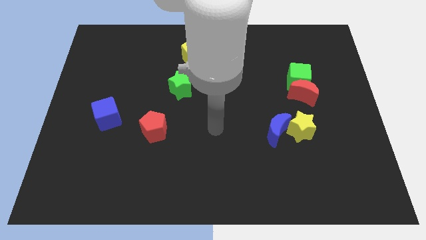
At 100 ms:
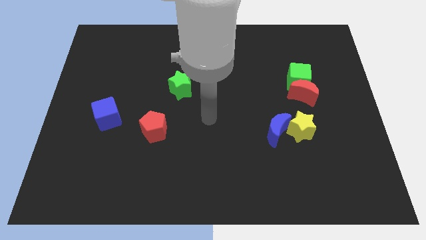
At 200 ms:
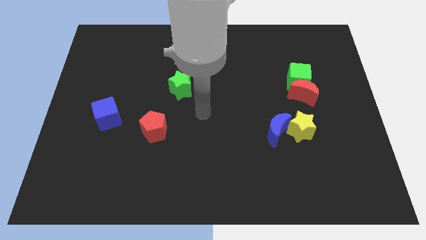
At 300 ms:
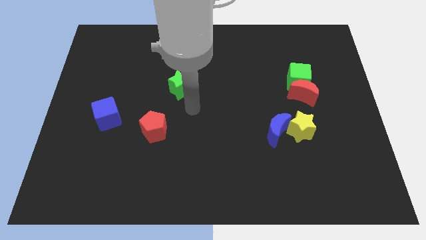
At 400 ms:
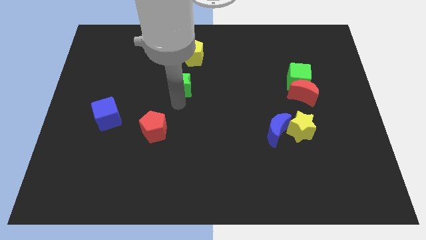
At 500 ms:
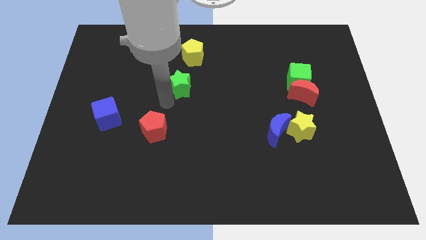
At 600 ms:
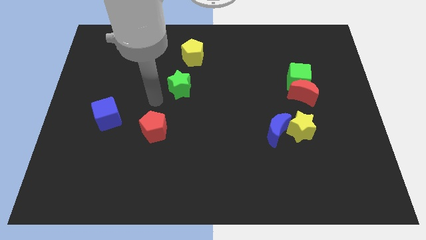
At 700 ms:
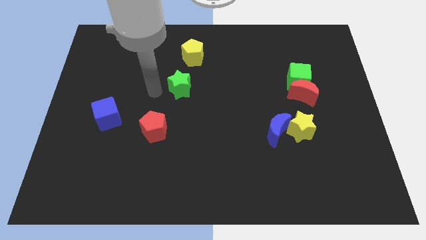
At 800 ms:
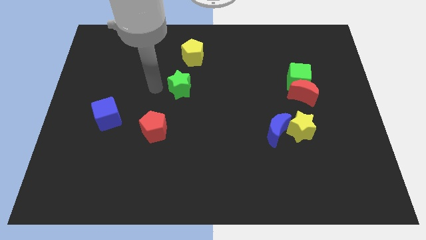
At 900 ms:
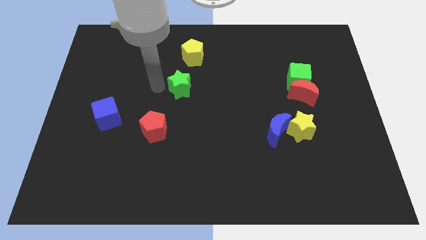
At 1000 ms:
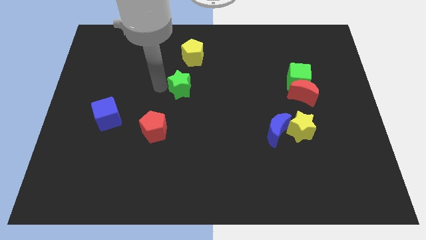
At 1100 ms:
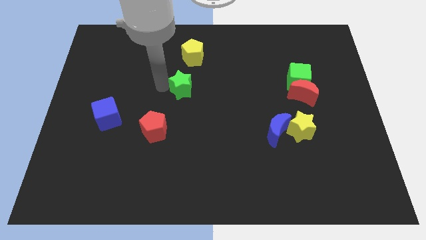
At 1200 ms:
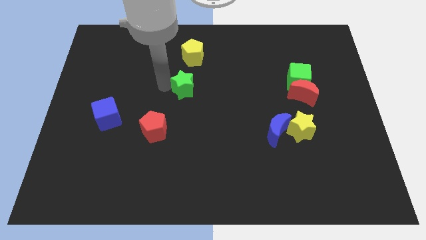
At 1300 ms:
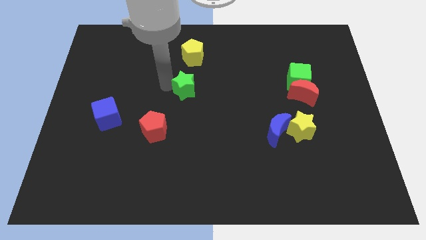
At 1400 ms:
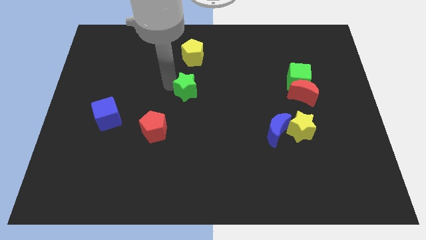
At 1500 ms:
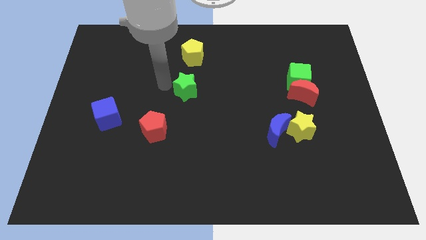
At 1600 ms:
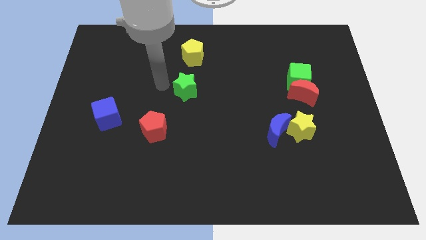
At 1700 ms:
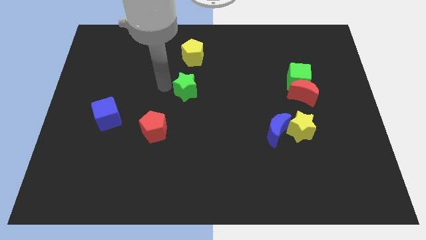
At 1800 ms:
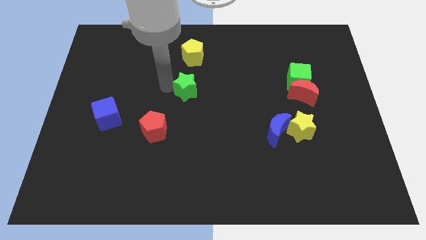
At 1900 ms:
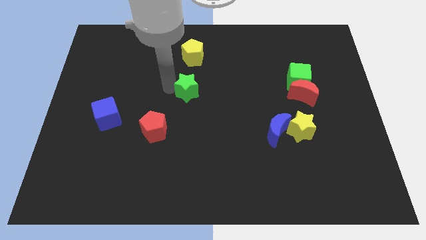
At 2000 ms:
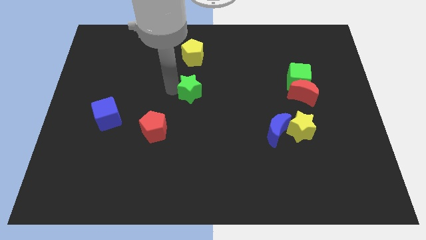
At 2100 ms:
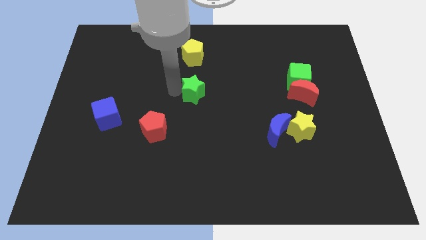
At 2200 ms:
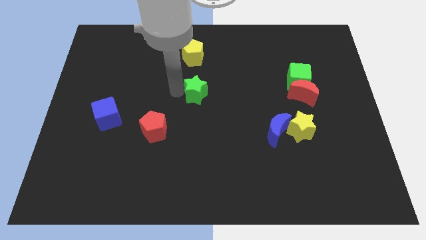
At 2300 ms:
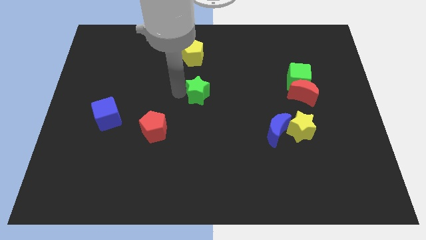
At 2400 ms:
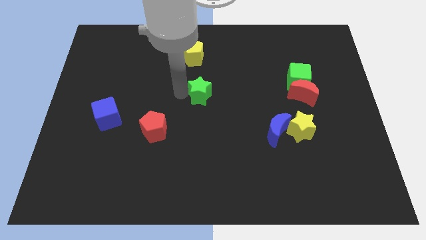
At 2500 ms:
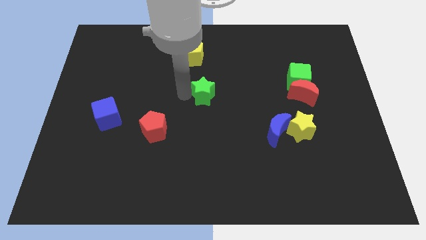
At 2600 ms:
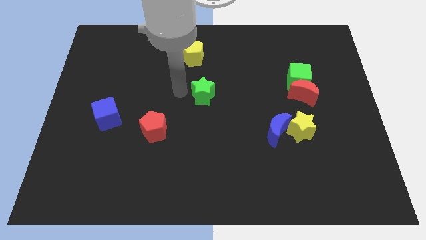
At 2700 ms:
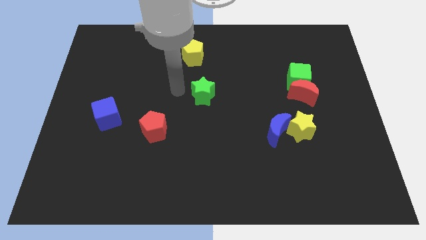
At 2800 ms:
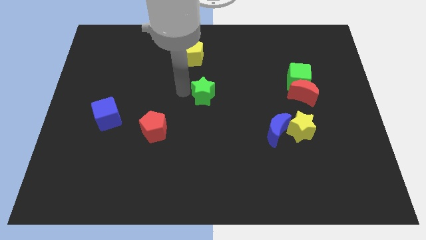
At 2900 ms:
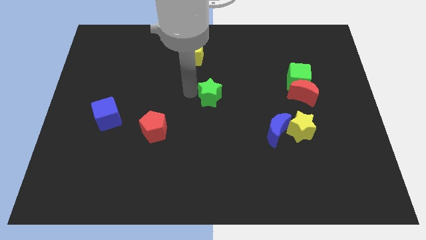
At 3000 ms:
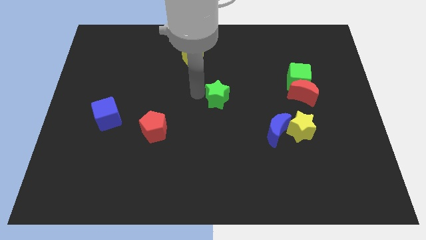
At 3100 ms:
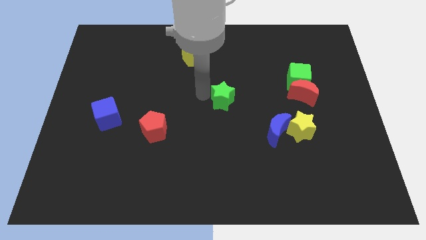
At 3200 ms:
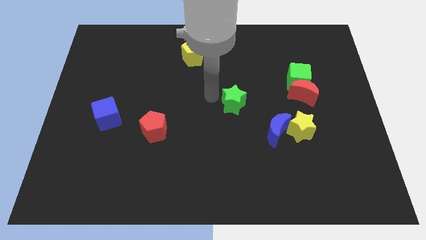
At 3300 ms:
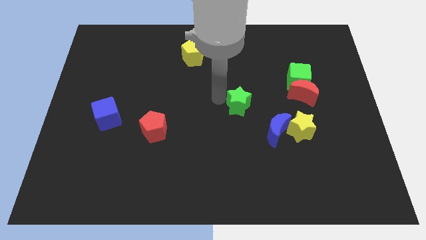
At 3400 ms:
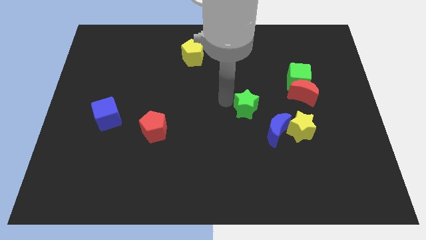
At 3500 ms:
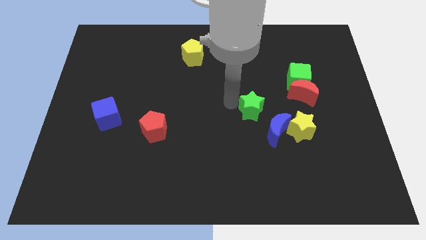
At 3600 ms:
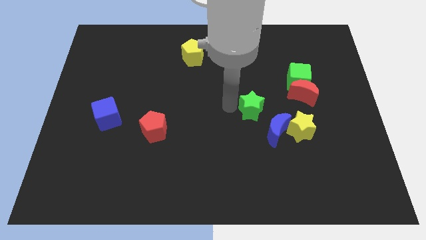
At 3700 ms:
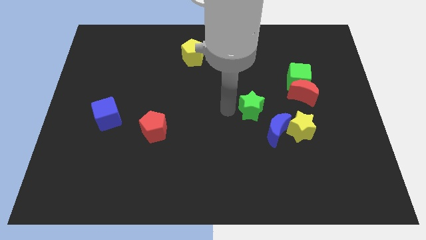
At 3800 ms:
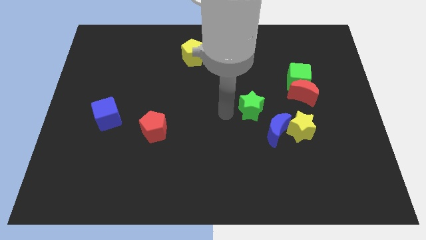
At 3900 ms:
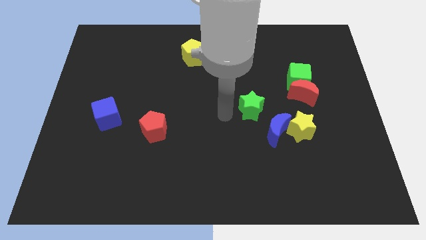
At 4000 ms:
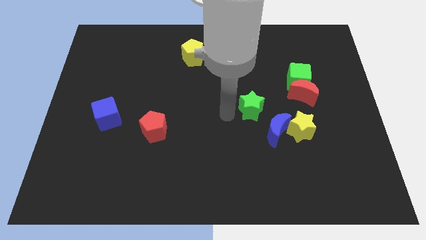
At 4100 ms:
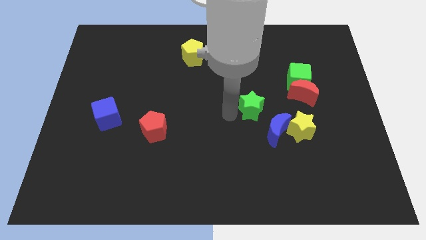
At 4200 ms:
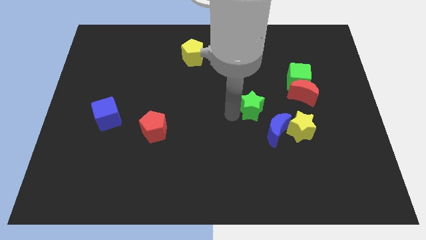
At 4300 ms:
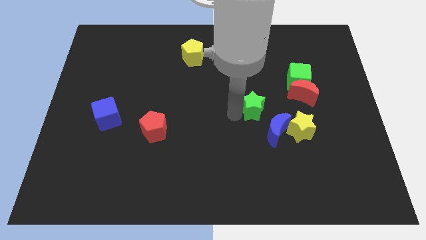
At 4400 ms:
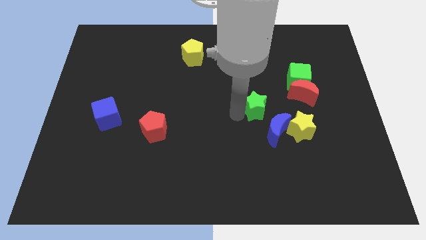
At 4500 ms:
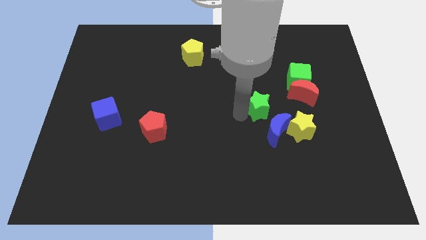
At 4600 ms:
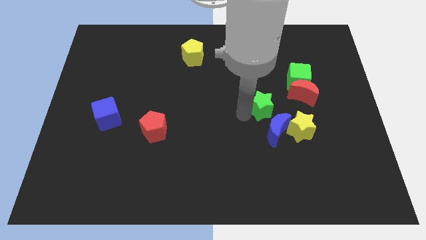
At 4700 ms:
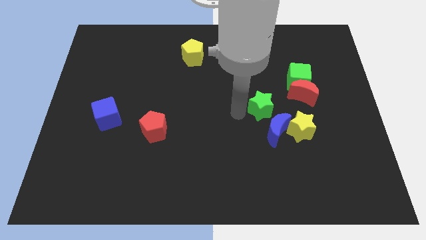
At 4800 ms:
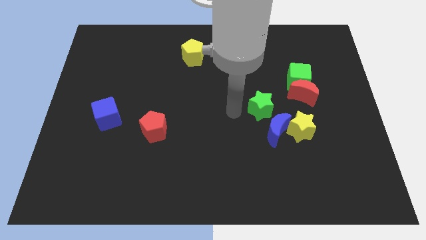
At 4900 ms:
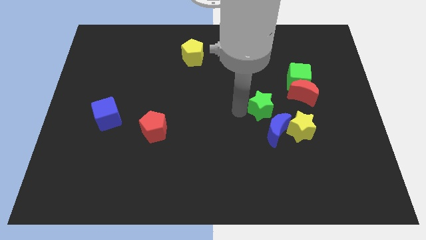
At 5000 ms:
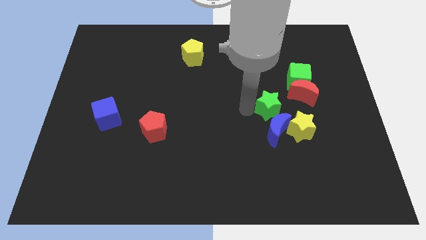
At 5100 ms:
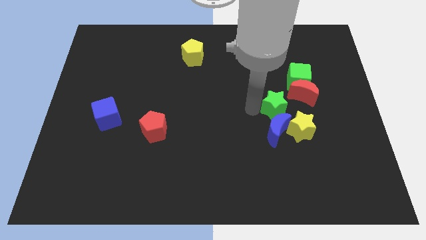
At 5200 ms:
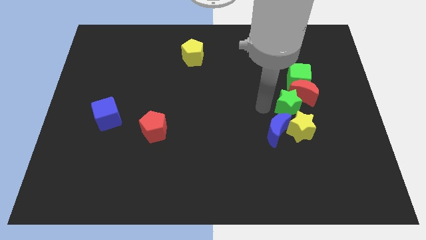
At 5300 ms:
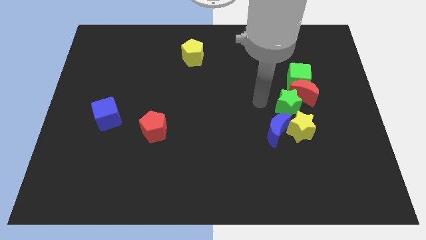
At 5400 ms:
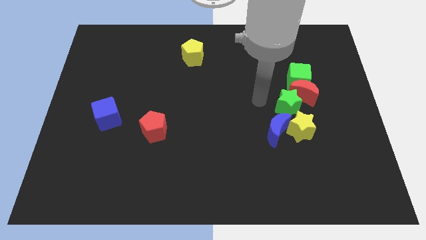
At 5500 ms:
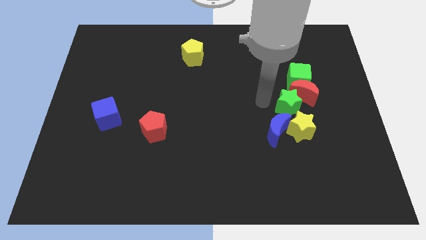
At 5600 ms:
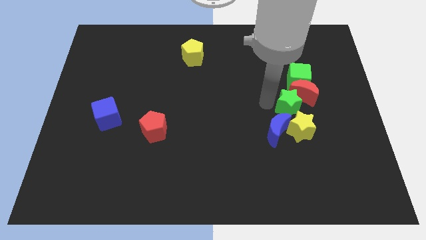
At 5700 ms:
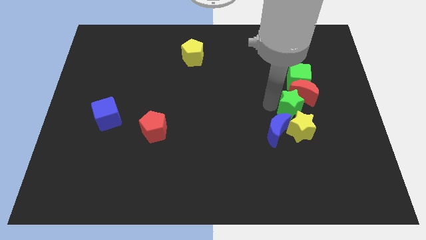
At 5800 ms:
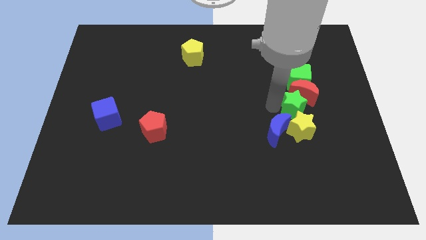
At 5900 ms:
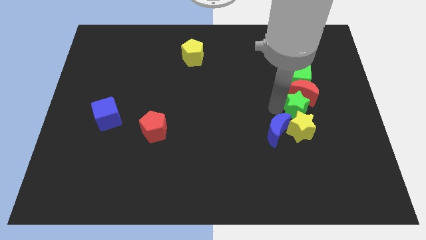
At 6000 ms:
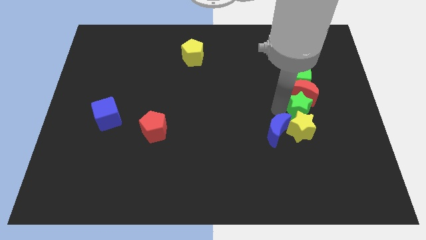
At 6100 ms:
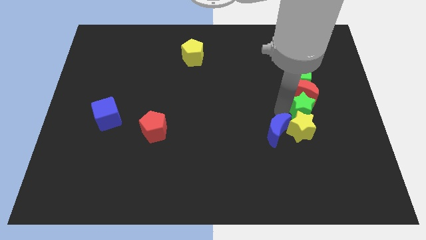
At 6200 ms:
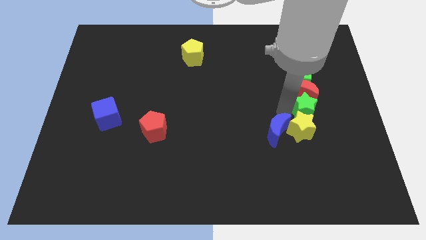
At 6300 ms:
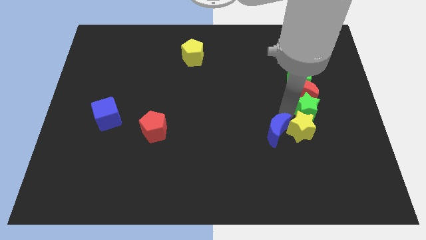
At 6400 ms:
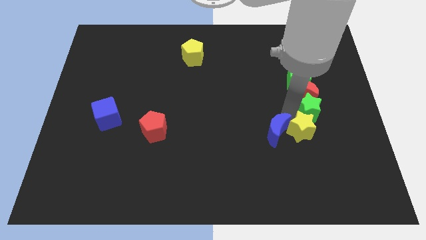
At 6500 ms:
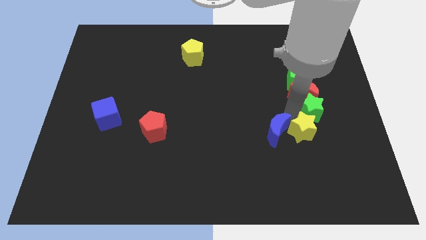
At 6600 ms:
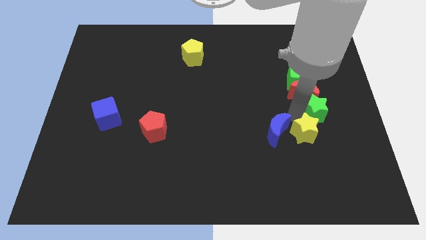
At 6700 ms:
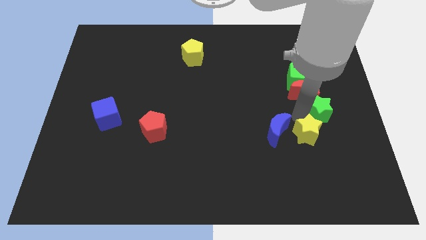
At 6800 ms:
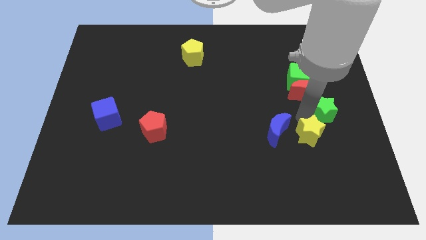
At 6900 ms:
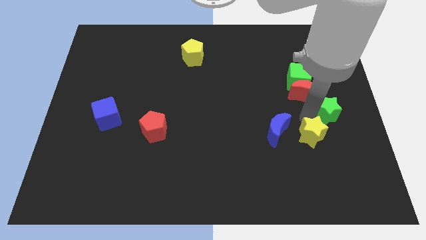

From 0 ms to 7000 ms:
move the green star to the right side of the board
